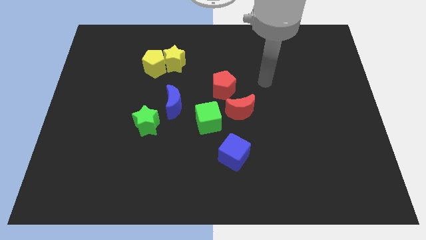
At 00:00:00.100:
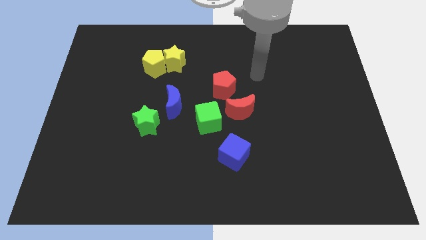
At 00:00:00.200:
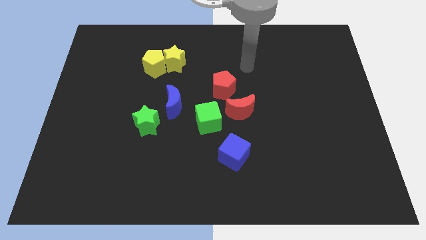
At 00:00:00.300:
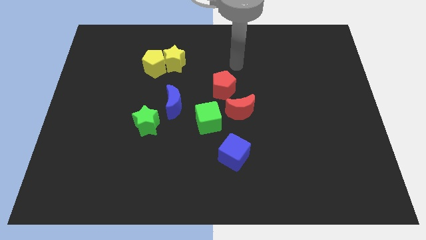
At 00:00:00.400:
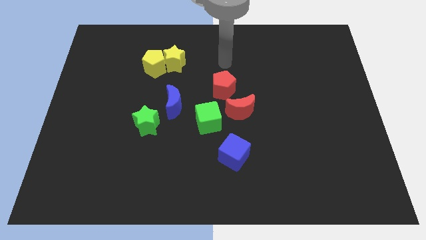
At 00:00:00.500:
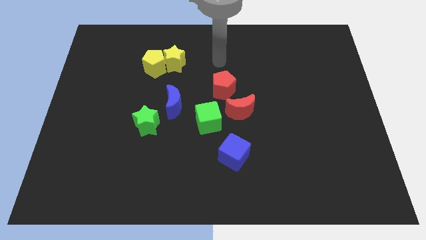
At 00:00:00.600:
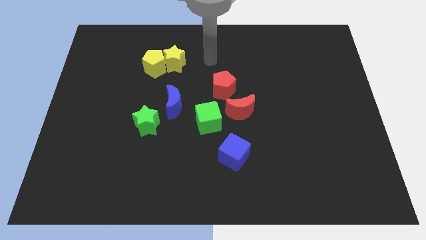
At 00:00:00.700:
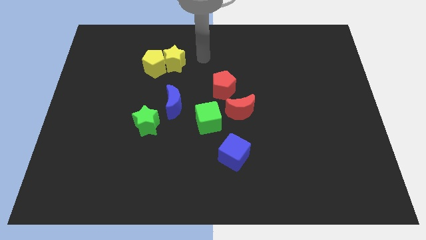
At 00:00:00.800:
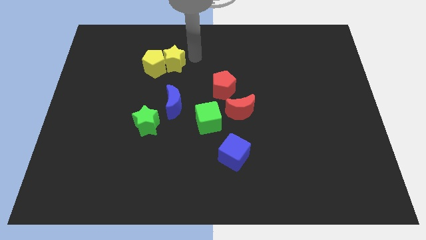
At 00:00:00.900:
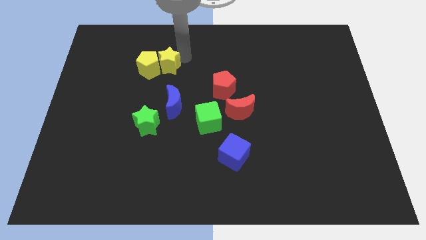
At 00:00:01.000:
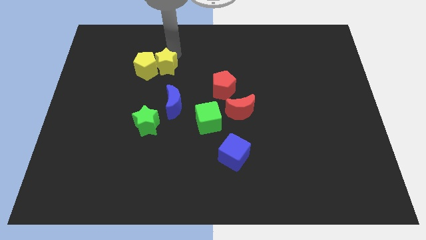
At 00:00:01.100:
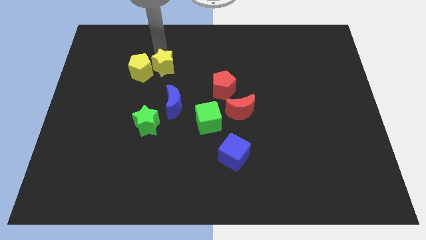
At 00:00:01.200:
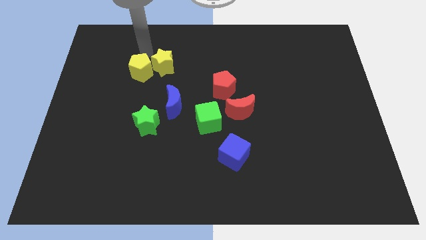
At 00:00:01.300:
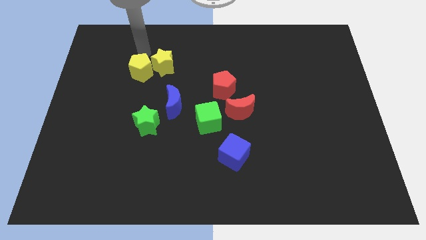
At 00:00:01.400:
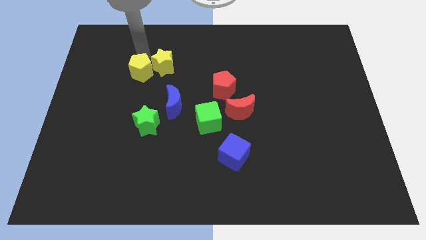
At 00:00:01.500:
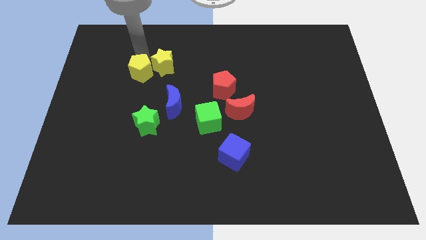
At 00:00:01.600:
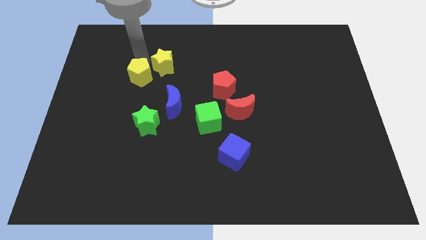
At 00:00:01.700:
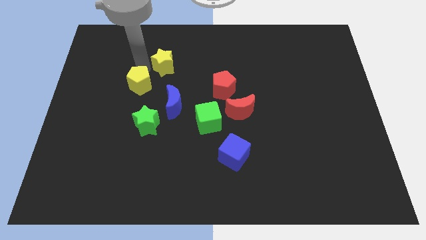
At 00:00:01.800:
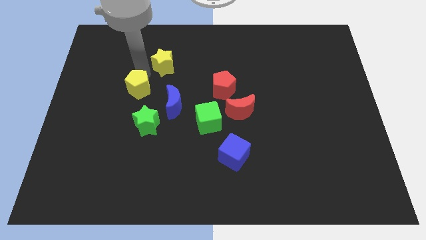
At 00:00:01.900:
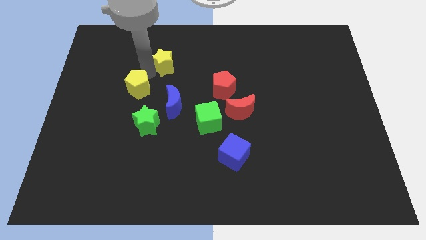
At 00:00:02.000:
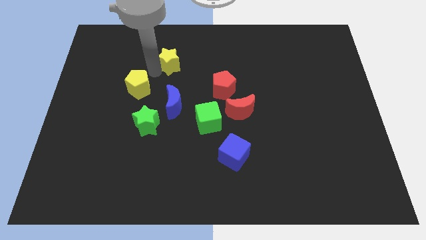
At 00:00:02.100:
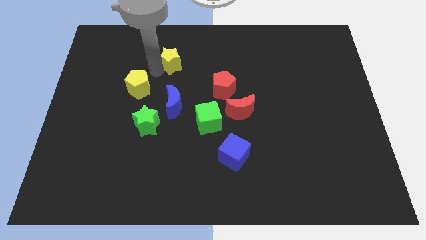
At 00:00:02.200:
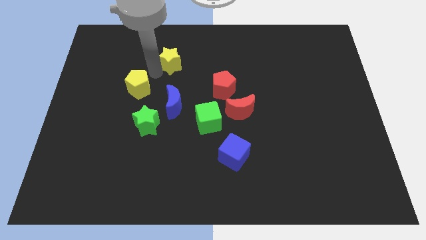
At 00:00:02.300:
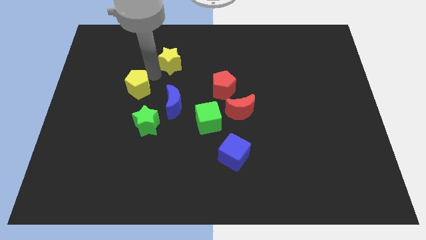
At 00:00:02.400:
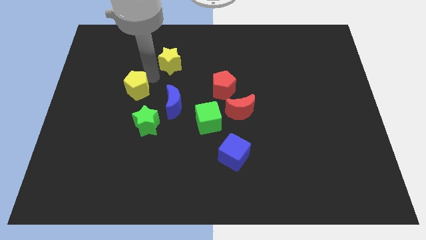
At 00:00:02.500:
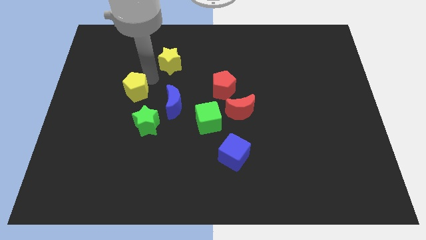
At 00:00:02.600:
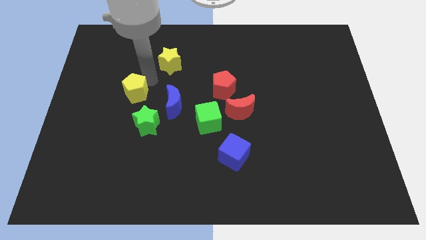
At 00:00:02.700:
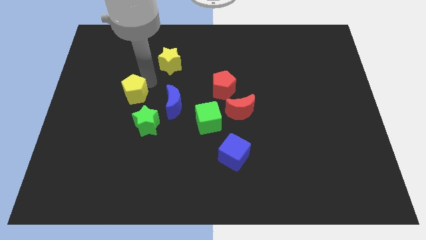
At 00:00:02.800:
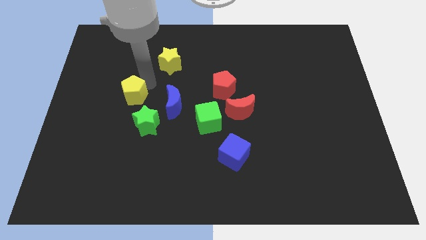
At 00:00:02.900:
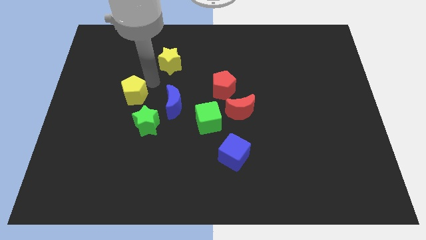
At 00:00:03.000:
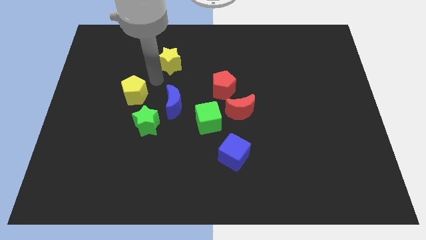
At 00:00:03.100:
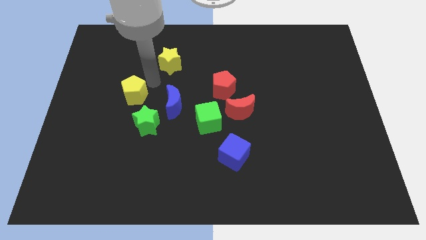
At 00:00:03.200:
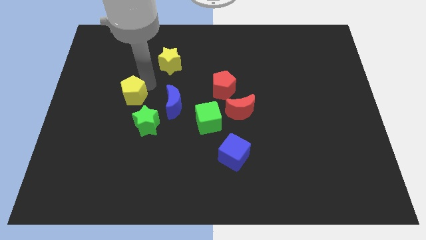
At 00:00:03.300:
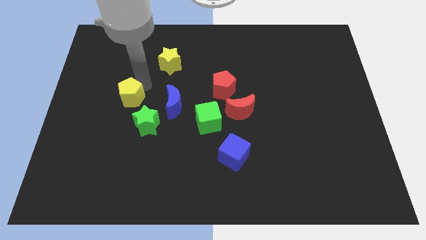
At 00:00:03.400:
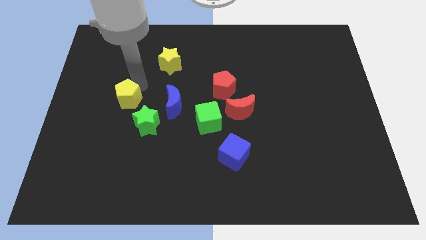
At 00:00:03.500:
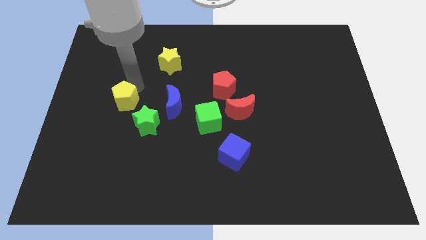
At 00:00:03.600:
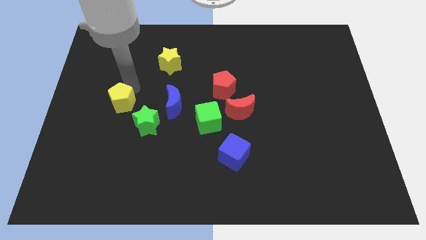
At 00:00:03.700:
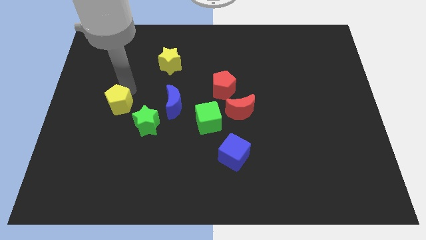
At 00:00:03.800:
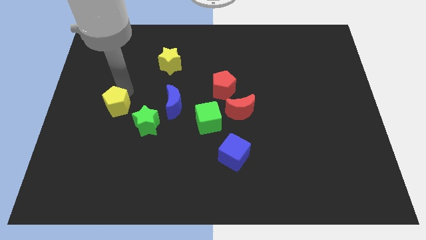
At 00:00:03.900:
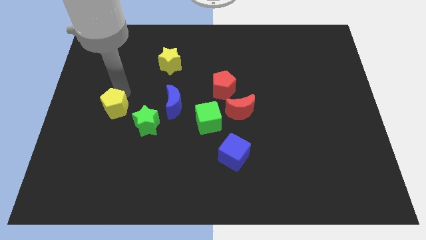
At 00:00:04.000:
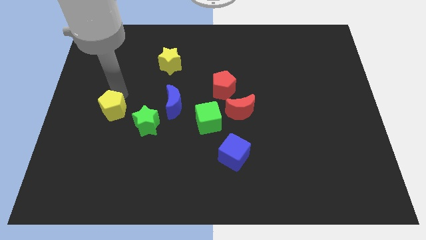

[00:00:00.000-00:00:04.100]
push the yellow pentagon to the left side of the green star

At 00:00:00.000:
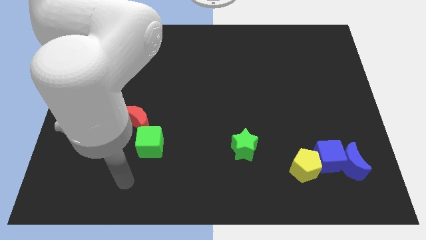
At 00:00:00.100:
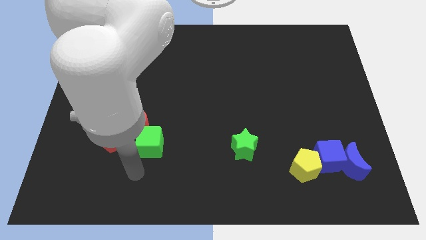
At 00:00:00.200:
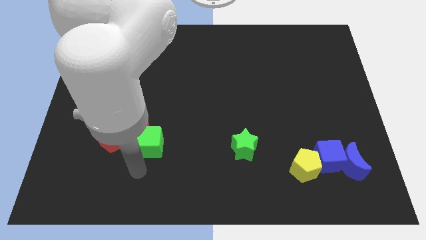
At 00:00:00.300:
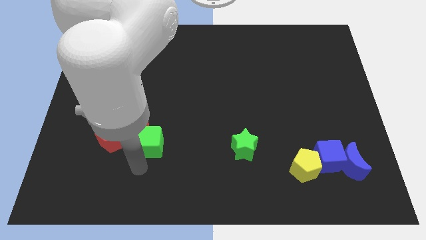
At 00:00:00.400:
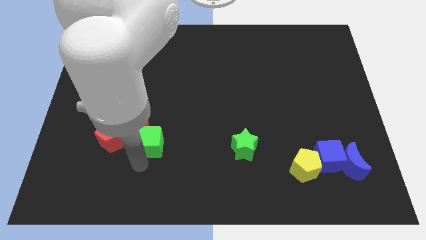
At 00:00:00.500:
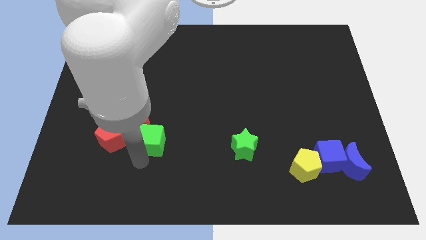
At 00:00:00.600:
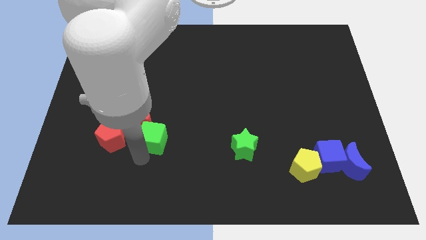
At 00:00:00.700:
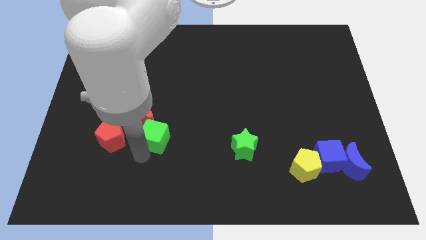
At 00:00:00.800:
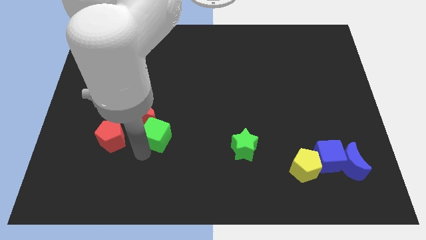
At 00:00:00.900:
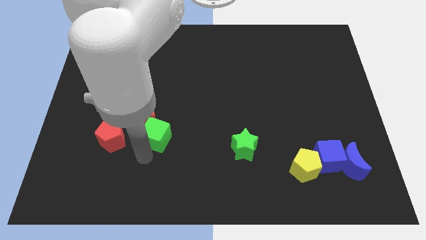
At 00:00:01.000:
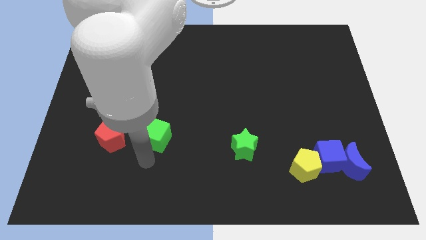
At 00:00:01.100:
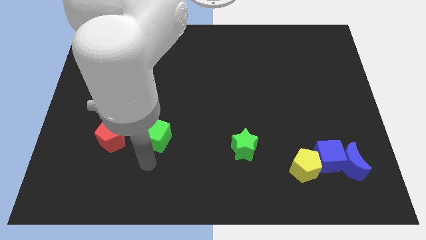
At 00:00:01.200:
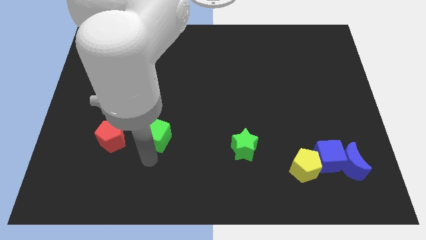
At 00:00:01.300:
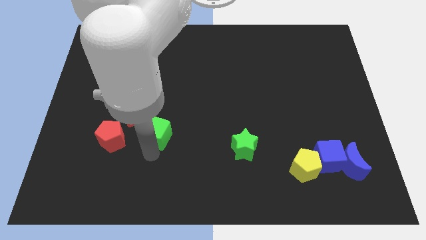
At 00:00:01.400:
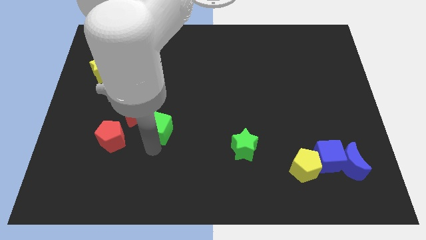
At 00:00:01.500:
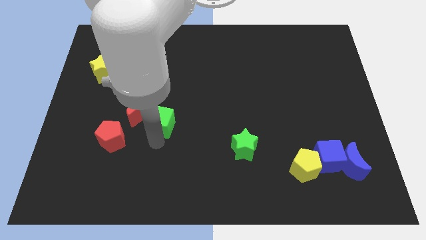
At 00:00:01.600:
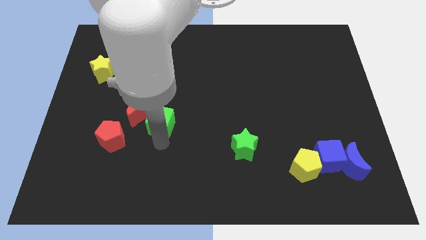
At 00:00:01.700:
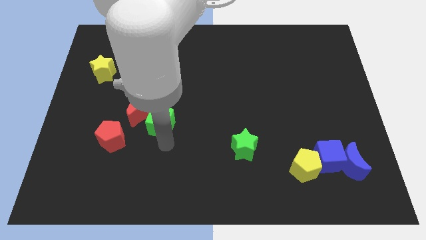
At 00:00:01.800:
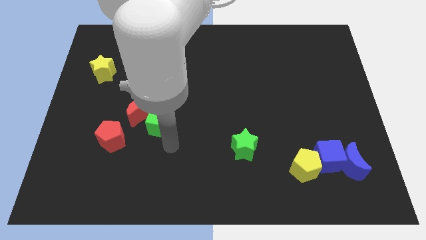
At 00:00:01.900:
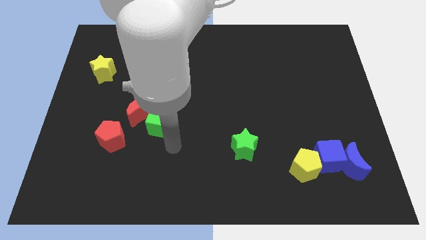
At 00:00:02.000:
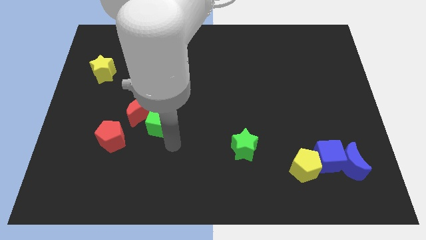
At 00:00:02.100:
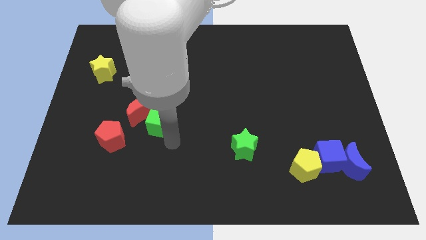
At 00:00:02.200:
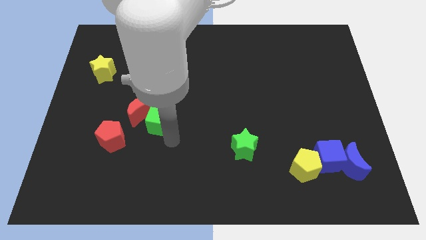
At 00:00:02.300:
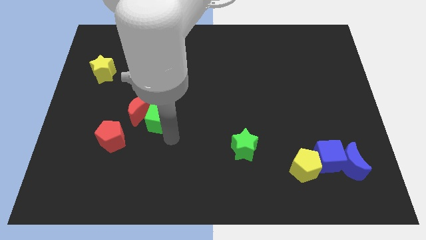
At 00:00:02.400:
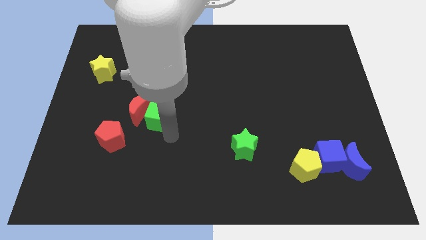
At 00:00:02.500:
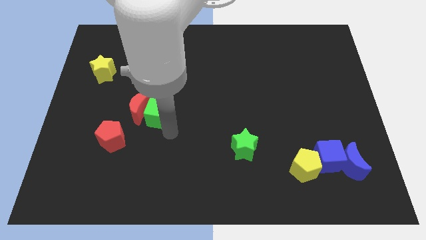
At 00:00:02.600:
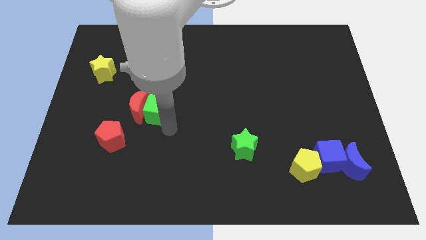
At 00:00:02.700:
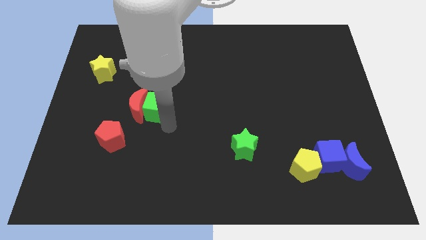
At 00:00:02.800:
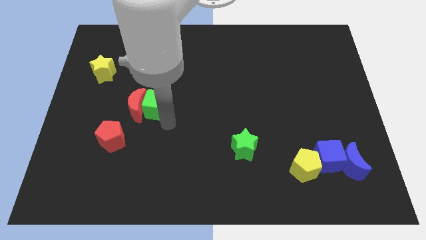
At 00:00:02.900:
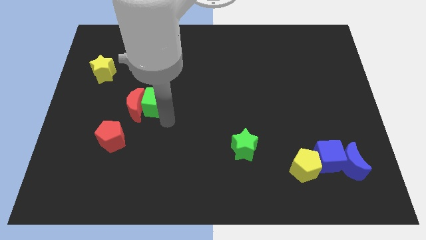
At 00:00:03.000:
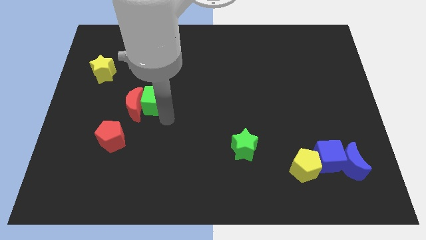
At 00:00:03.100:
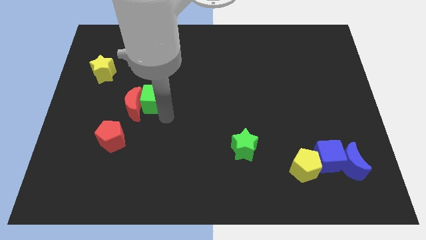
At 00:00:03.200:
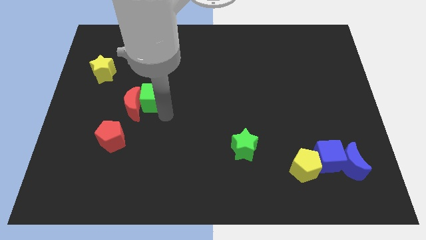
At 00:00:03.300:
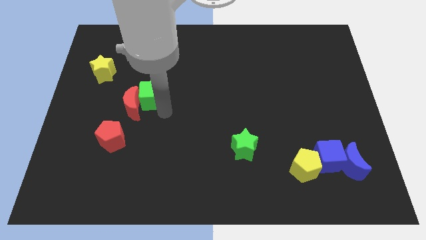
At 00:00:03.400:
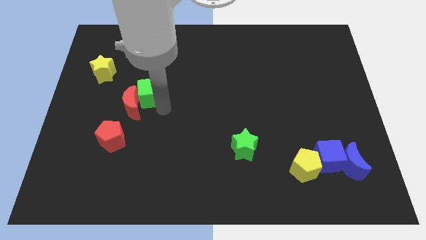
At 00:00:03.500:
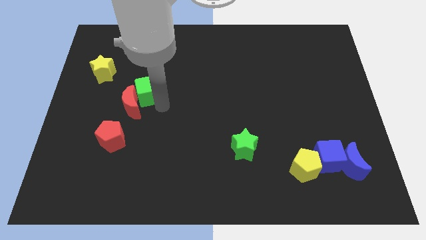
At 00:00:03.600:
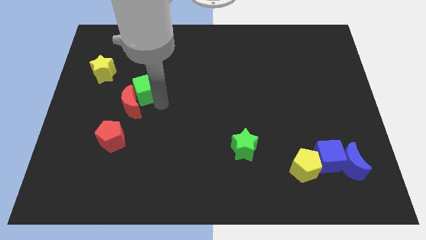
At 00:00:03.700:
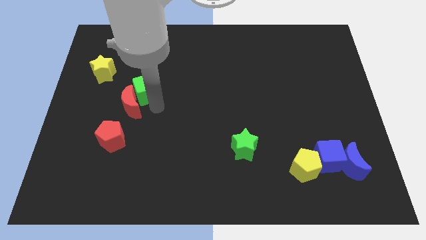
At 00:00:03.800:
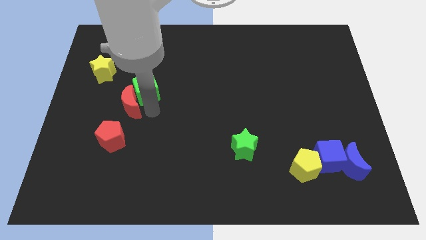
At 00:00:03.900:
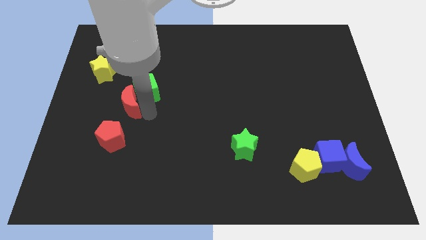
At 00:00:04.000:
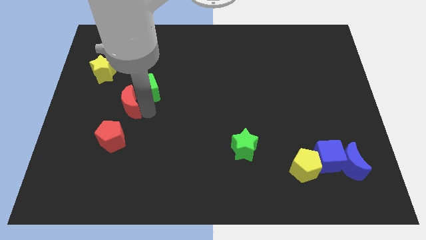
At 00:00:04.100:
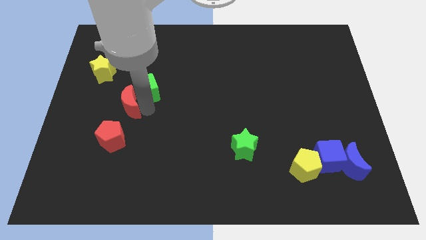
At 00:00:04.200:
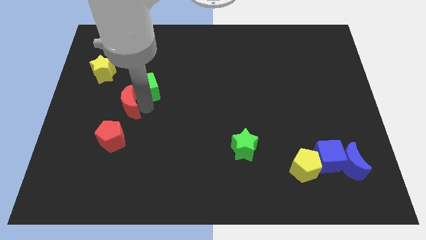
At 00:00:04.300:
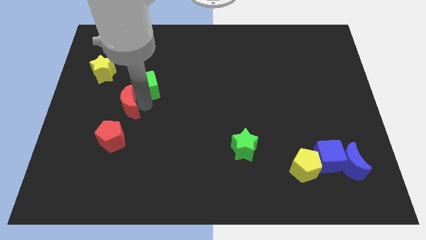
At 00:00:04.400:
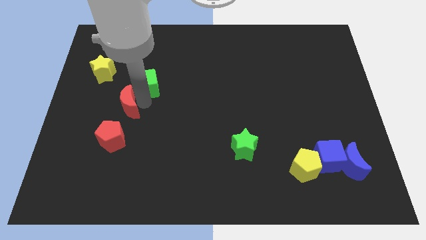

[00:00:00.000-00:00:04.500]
put the green cube to the right side of the yellow star
